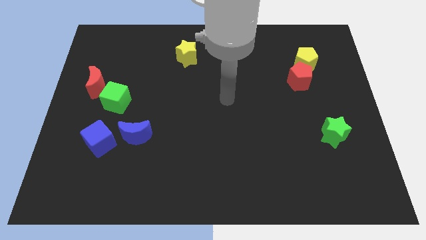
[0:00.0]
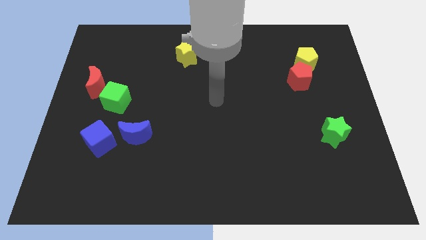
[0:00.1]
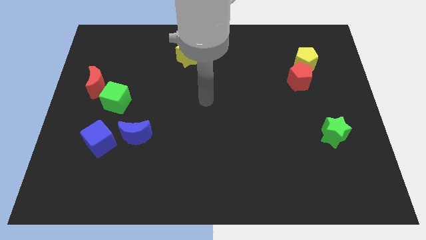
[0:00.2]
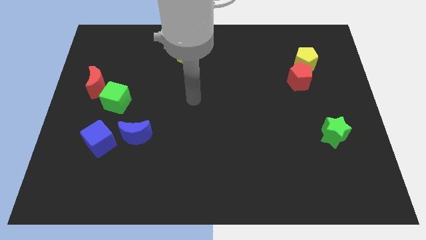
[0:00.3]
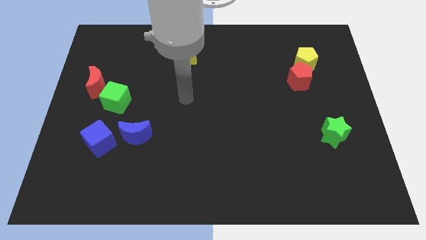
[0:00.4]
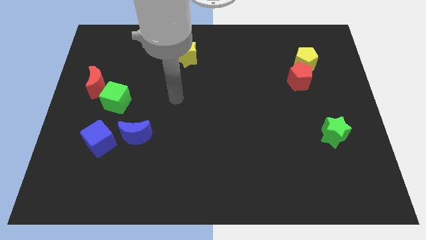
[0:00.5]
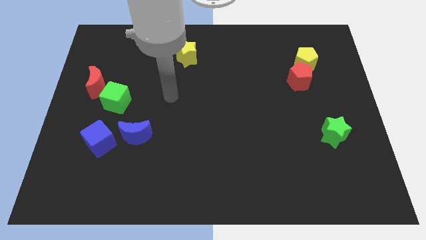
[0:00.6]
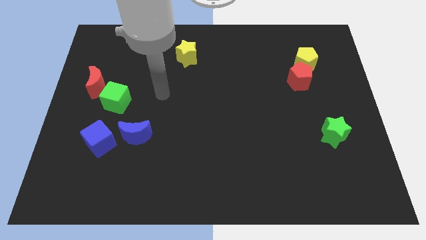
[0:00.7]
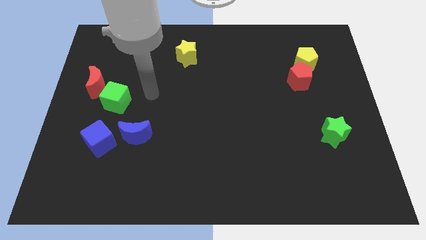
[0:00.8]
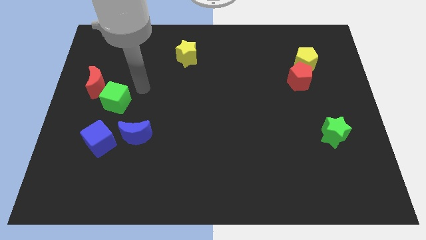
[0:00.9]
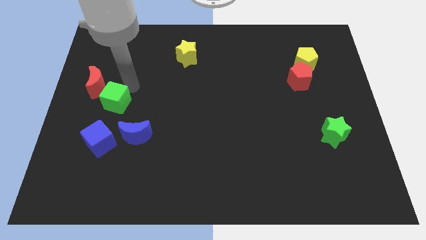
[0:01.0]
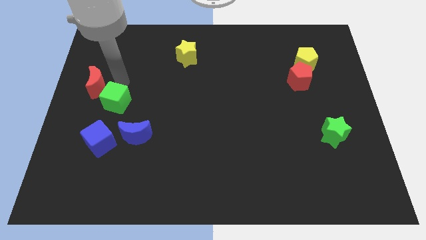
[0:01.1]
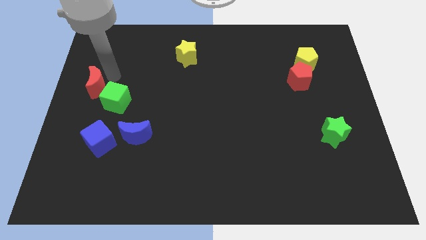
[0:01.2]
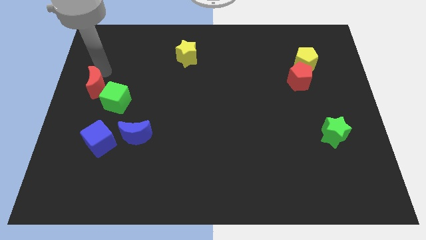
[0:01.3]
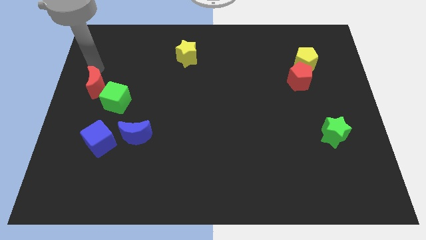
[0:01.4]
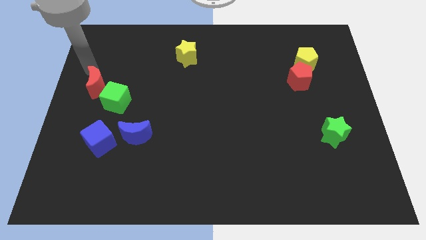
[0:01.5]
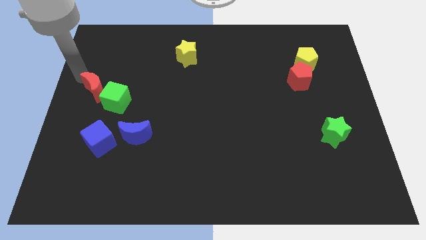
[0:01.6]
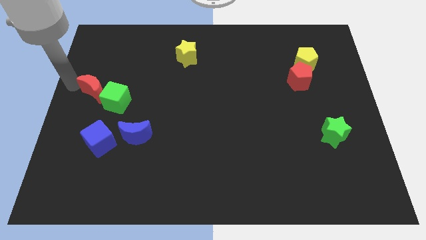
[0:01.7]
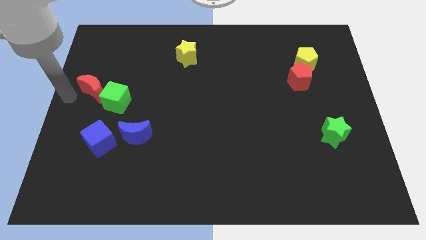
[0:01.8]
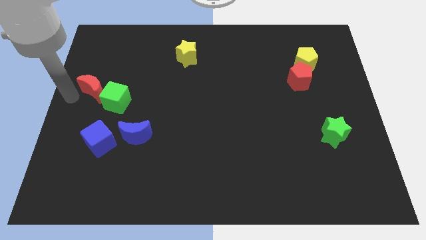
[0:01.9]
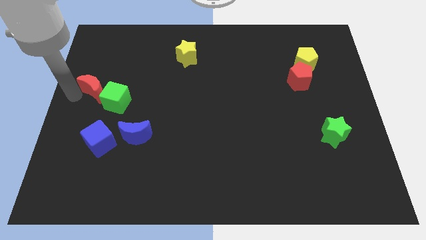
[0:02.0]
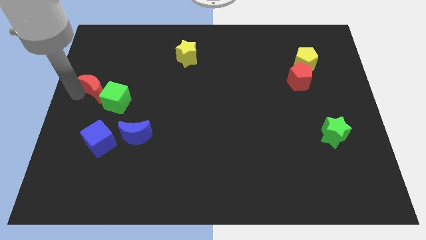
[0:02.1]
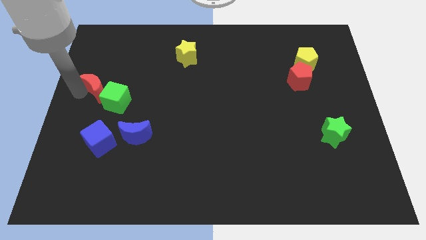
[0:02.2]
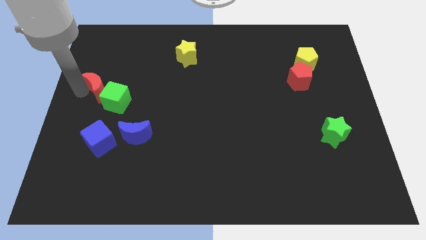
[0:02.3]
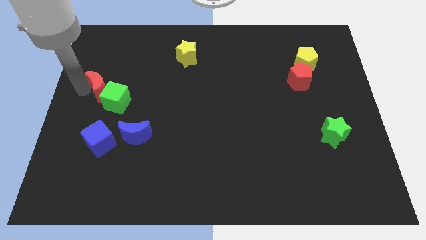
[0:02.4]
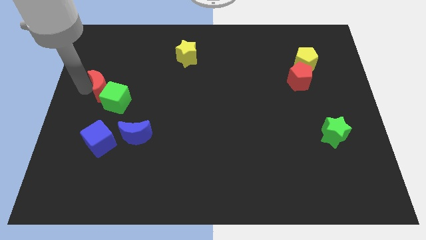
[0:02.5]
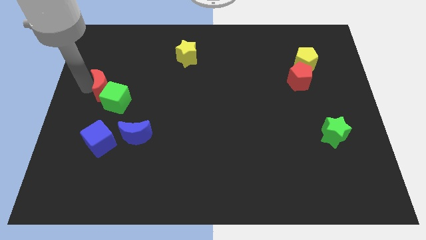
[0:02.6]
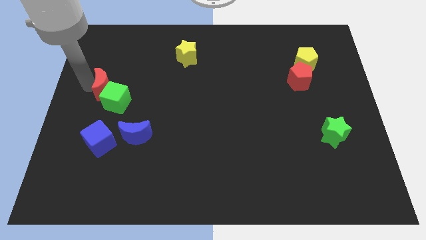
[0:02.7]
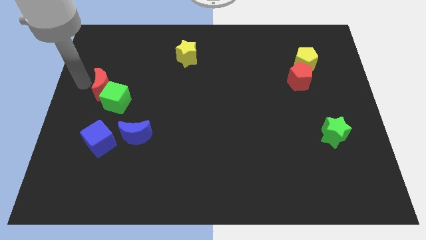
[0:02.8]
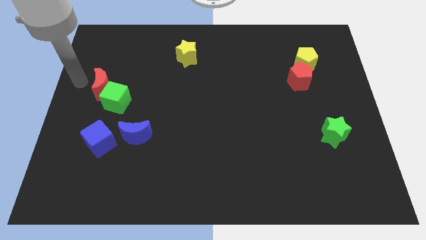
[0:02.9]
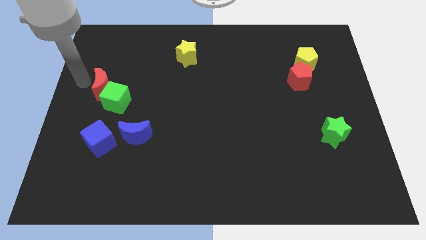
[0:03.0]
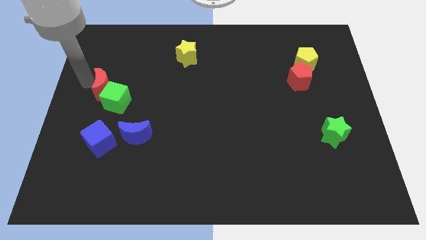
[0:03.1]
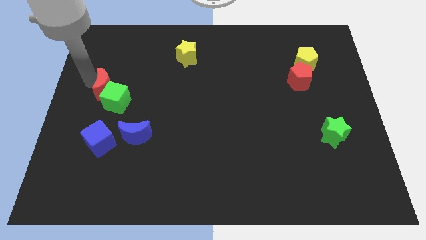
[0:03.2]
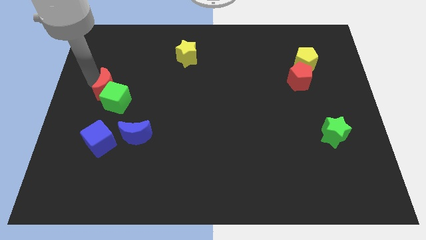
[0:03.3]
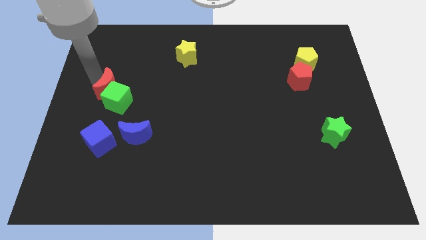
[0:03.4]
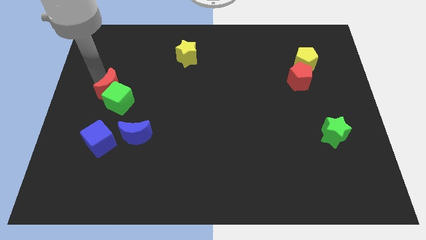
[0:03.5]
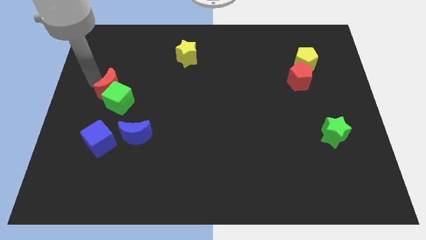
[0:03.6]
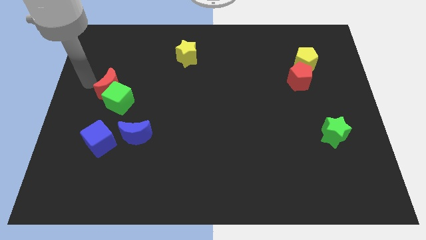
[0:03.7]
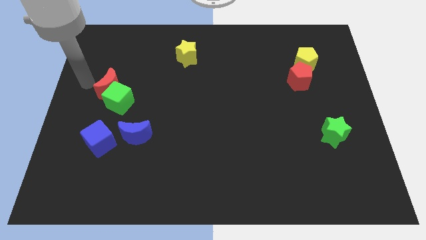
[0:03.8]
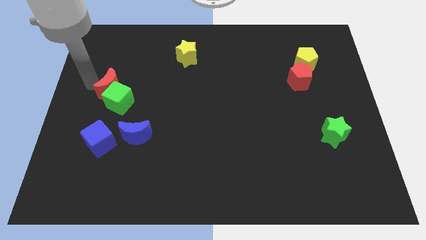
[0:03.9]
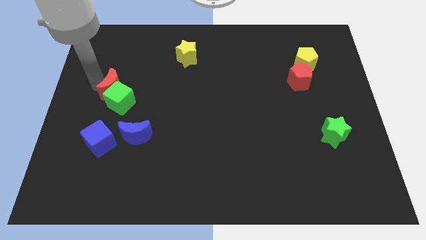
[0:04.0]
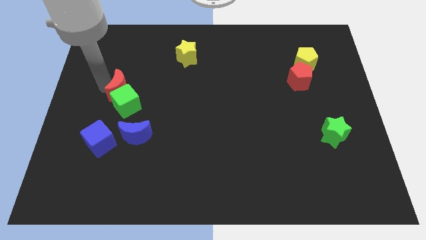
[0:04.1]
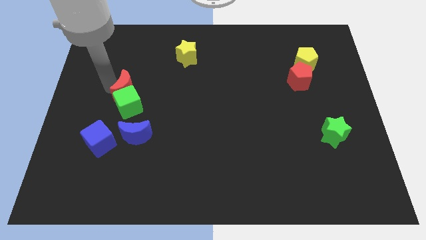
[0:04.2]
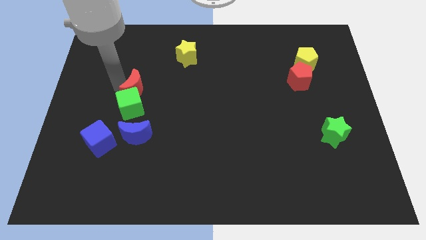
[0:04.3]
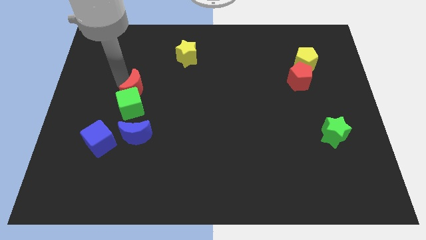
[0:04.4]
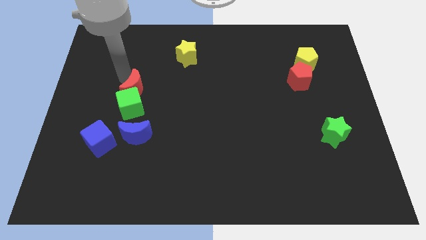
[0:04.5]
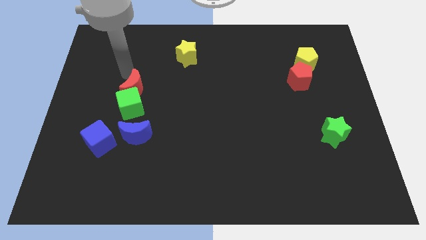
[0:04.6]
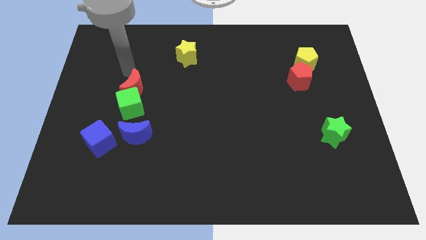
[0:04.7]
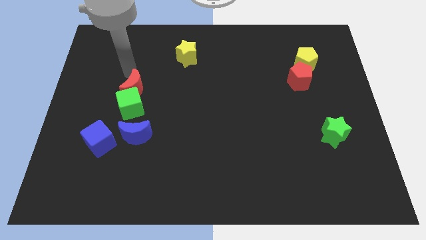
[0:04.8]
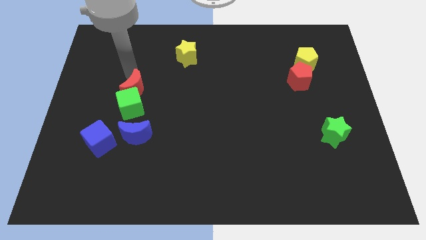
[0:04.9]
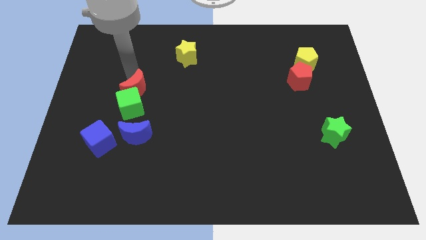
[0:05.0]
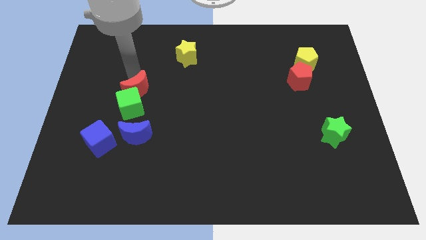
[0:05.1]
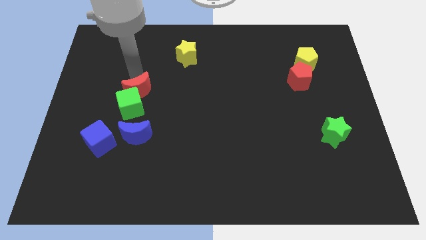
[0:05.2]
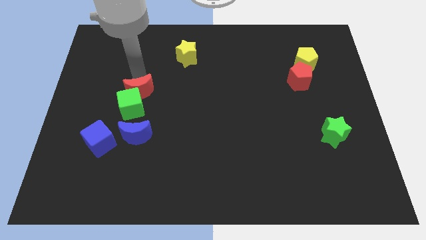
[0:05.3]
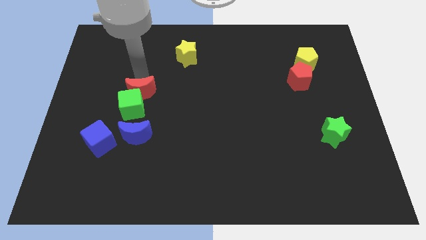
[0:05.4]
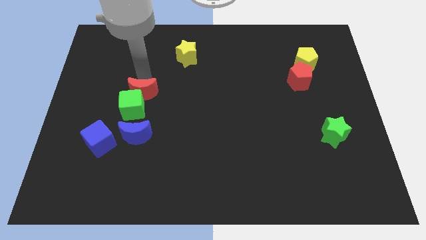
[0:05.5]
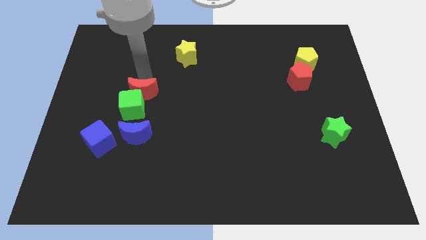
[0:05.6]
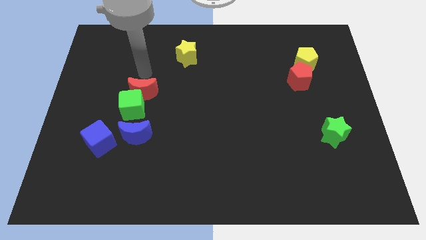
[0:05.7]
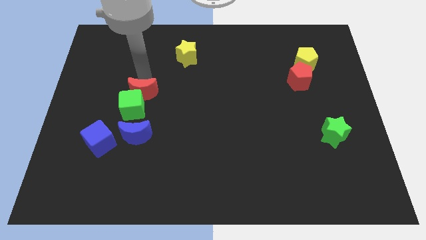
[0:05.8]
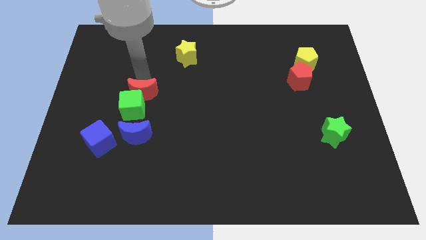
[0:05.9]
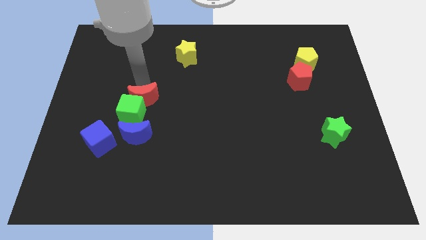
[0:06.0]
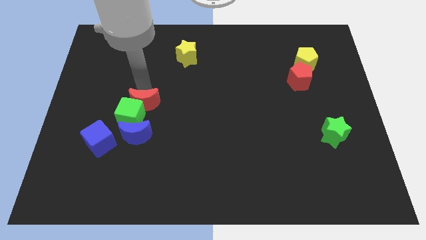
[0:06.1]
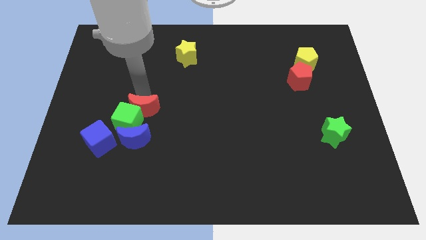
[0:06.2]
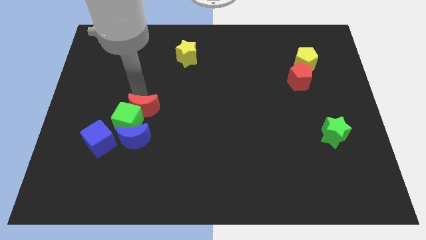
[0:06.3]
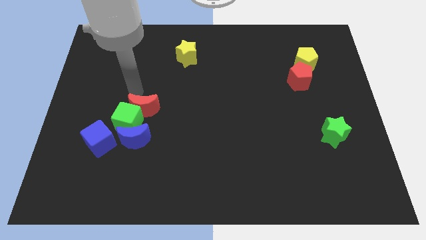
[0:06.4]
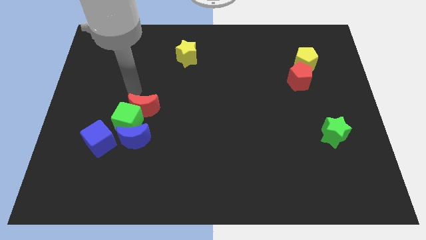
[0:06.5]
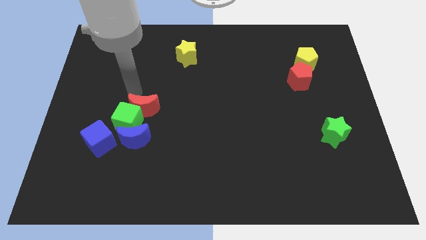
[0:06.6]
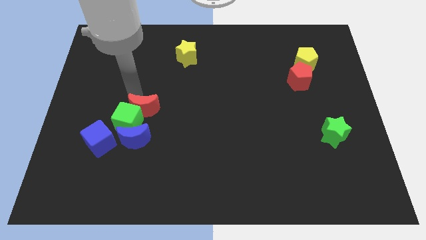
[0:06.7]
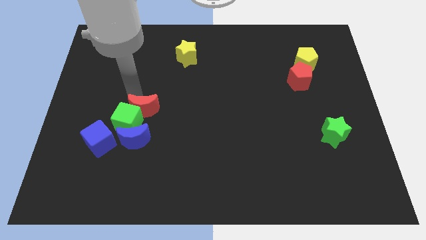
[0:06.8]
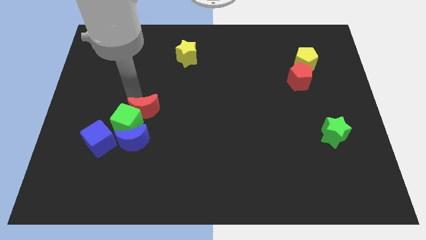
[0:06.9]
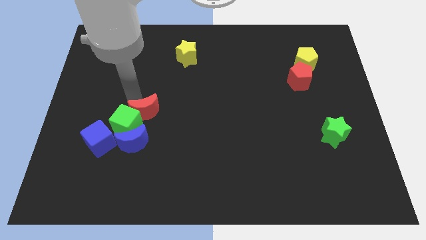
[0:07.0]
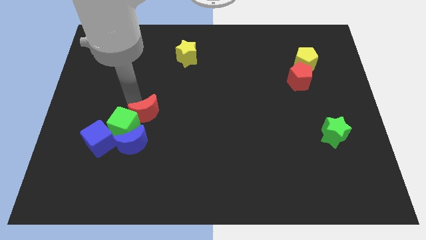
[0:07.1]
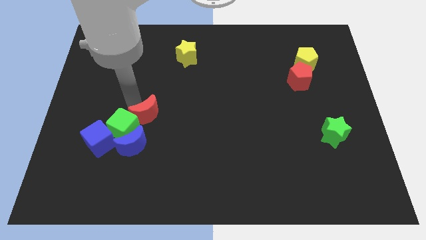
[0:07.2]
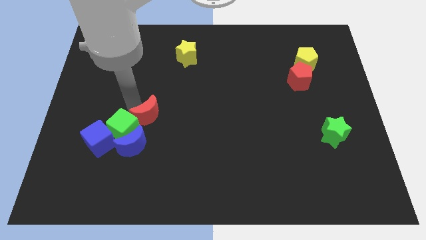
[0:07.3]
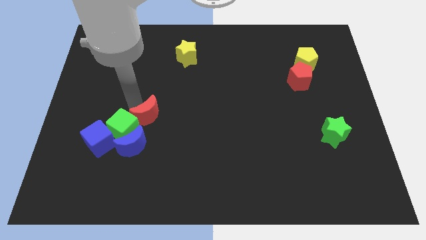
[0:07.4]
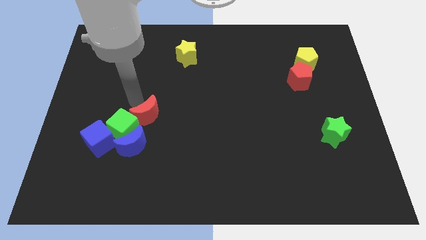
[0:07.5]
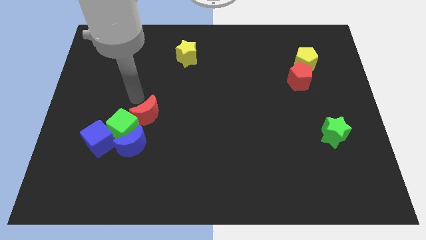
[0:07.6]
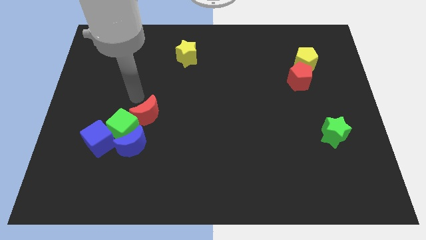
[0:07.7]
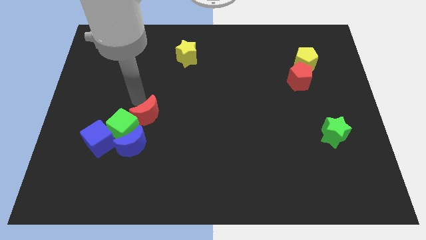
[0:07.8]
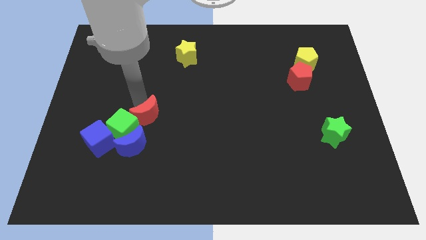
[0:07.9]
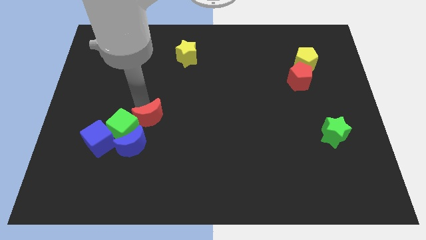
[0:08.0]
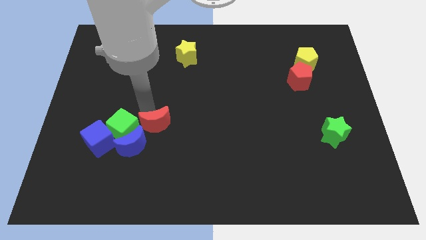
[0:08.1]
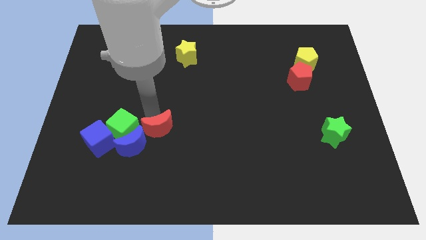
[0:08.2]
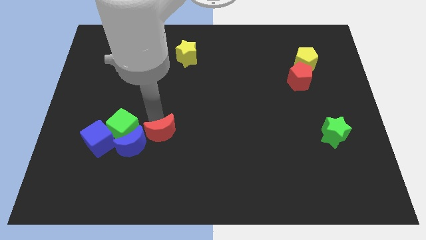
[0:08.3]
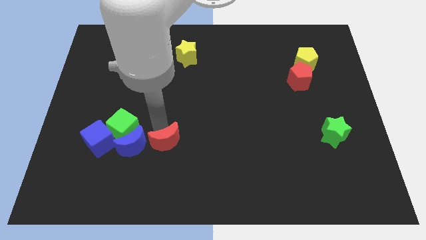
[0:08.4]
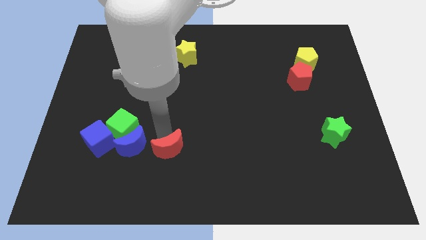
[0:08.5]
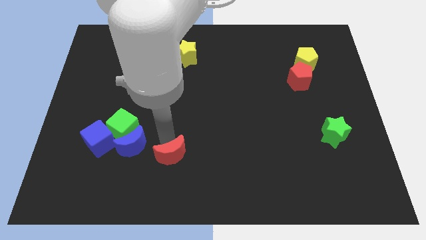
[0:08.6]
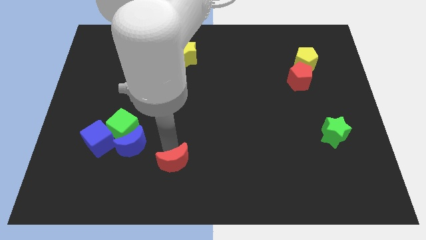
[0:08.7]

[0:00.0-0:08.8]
push the red moon to the bottom
